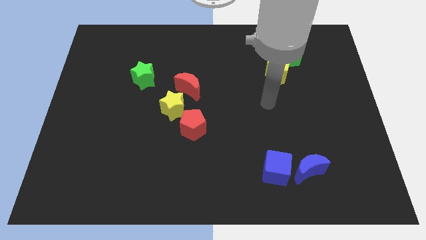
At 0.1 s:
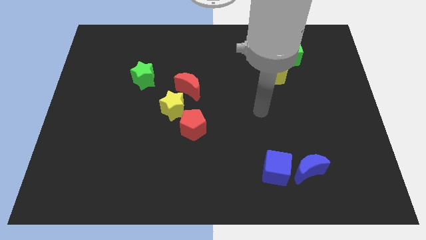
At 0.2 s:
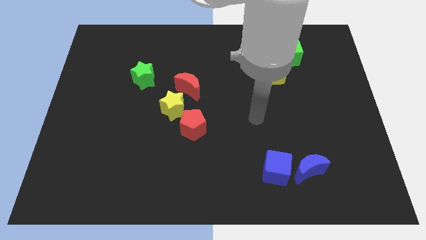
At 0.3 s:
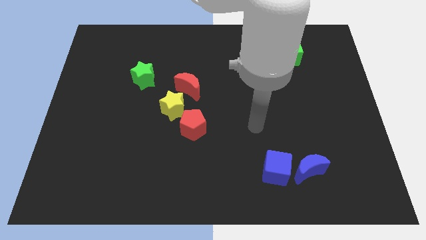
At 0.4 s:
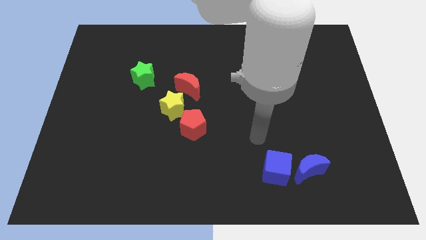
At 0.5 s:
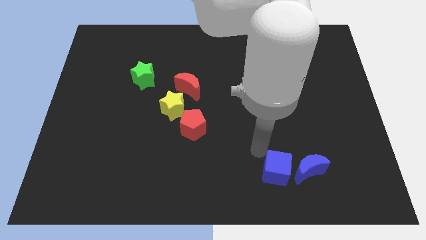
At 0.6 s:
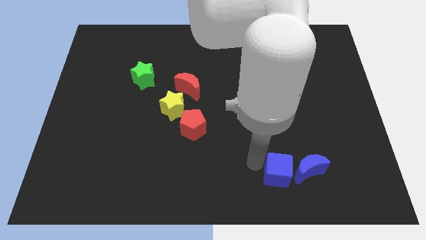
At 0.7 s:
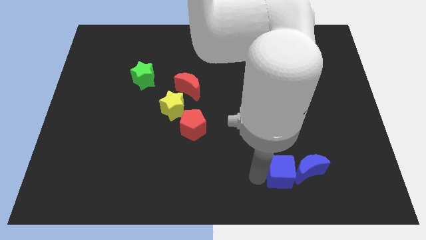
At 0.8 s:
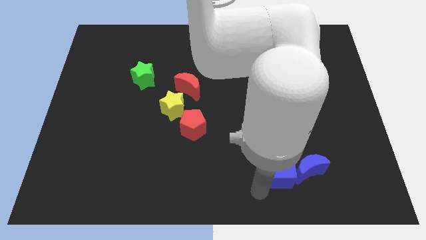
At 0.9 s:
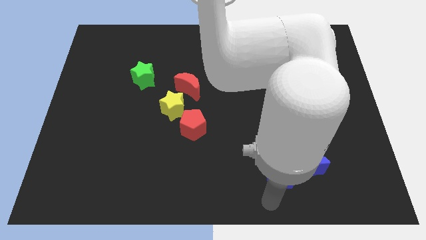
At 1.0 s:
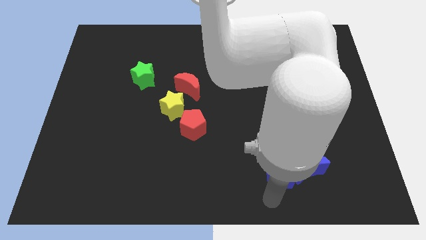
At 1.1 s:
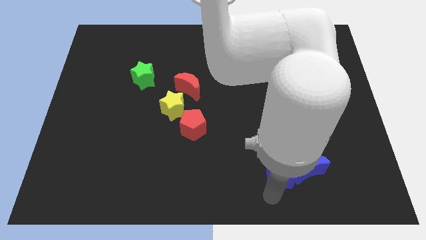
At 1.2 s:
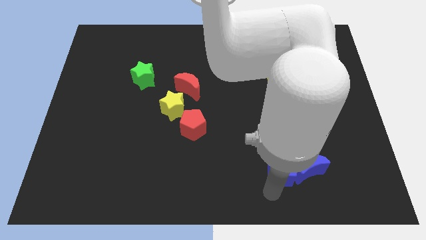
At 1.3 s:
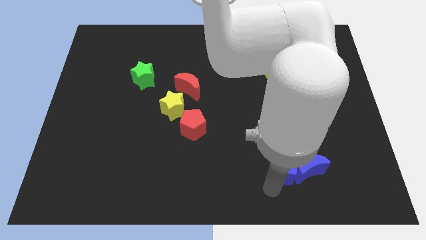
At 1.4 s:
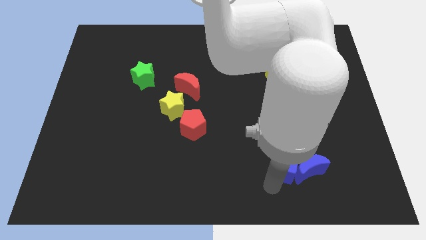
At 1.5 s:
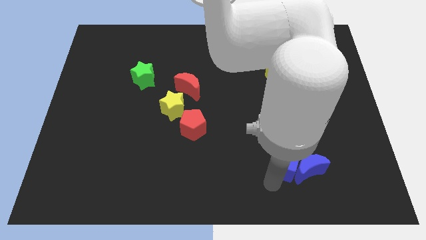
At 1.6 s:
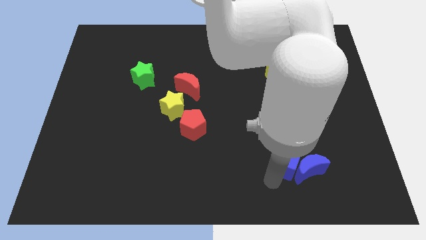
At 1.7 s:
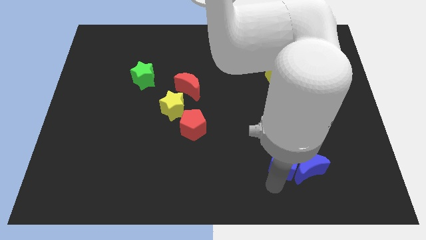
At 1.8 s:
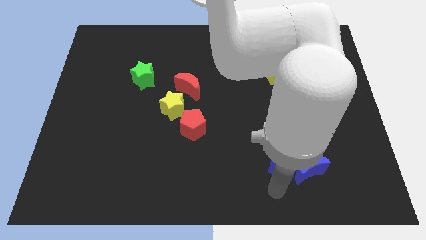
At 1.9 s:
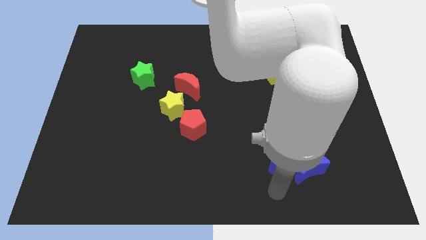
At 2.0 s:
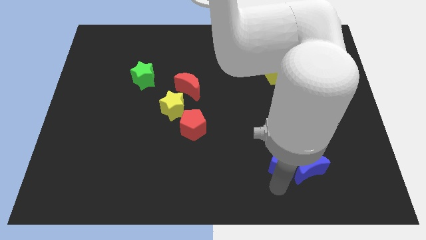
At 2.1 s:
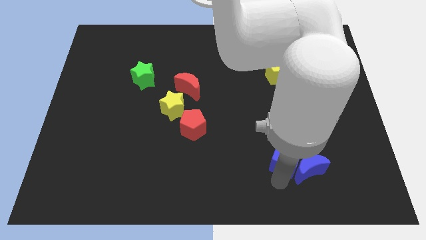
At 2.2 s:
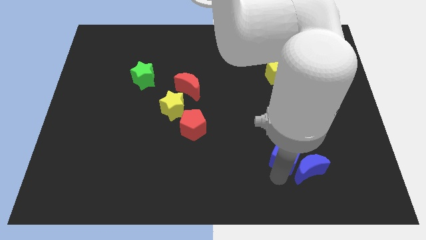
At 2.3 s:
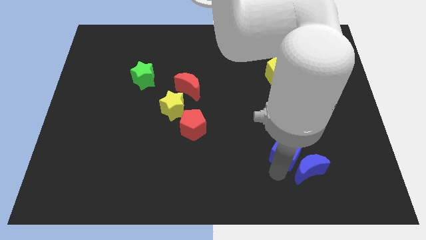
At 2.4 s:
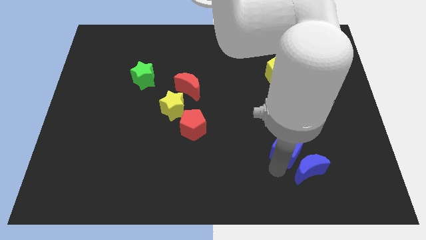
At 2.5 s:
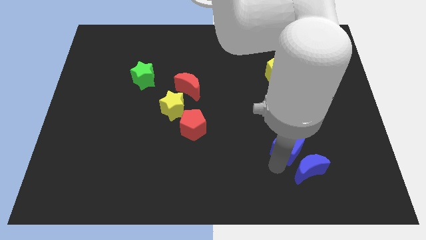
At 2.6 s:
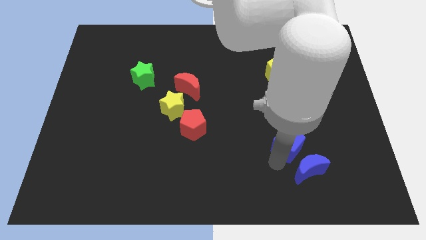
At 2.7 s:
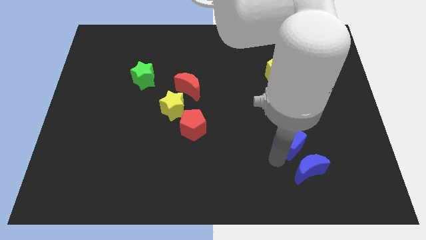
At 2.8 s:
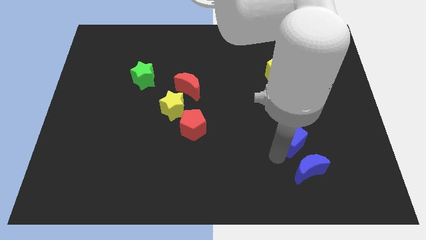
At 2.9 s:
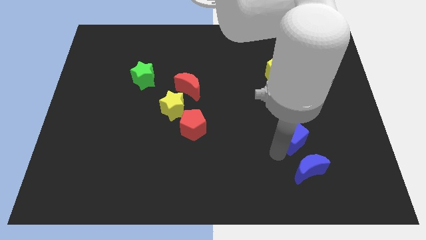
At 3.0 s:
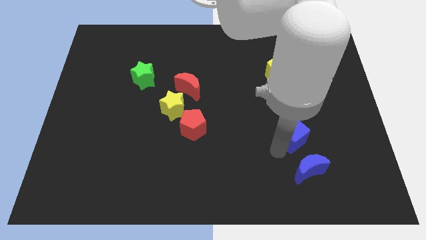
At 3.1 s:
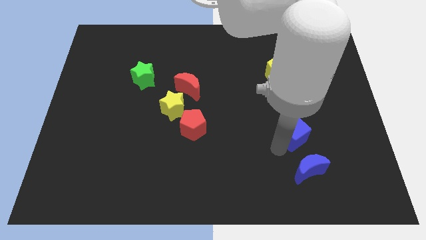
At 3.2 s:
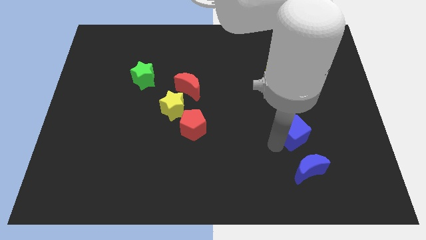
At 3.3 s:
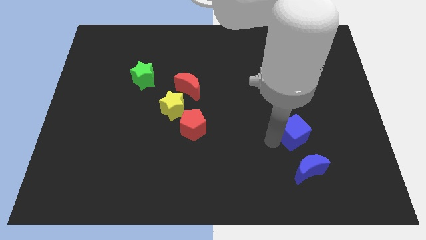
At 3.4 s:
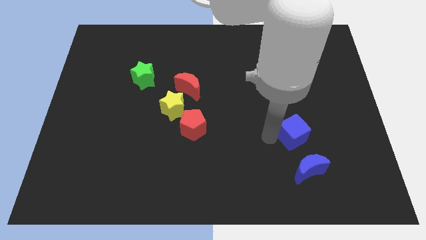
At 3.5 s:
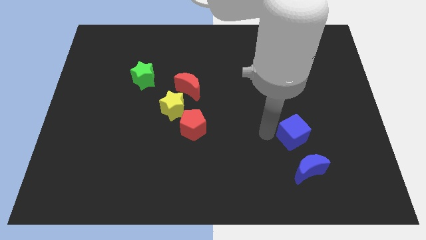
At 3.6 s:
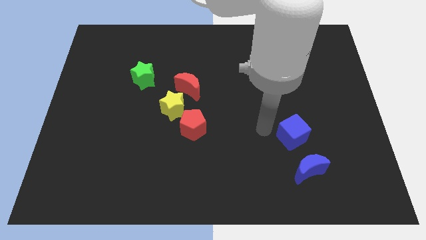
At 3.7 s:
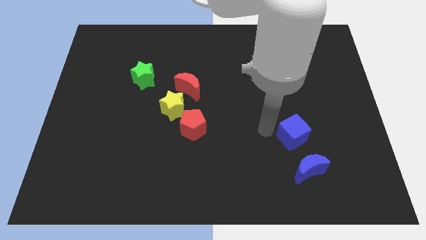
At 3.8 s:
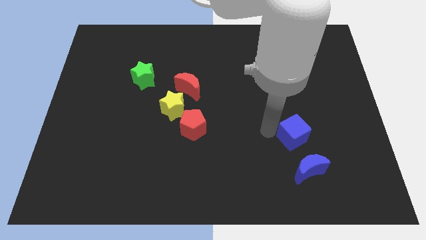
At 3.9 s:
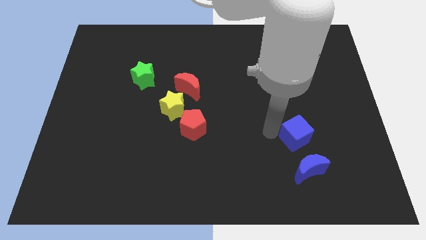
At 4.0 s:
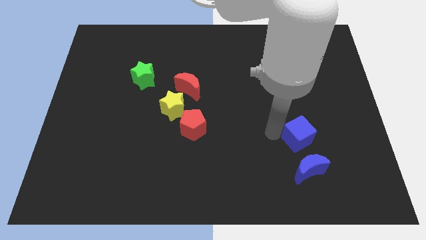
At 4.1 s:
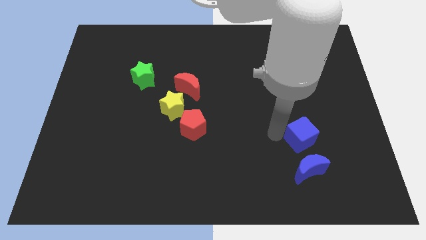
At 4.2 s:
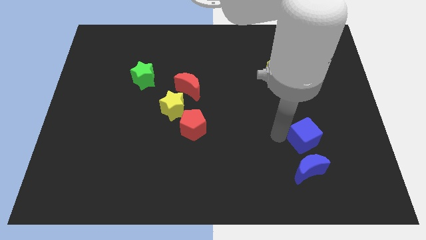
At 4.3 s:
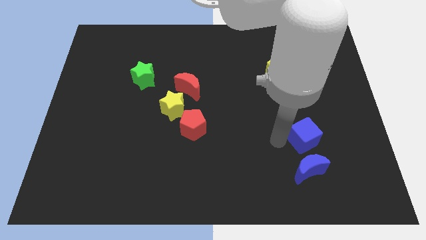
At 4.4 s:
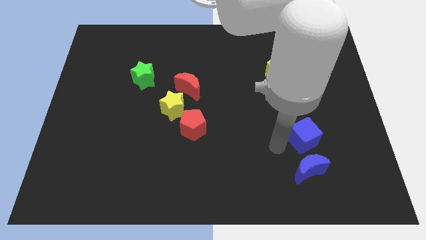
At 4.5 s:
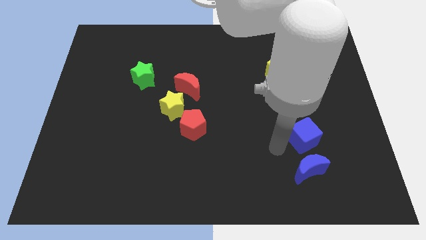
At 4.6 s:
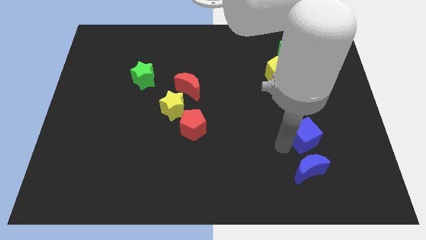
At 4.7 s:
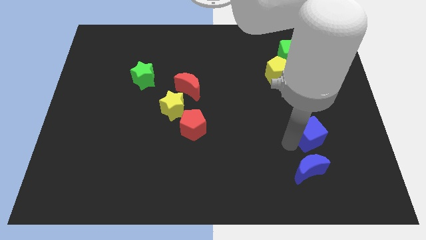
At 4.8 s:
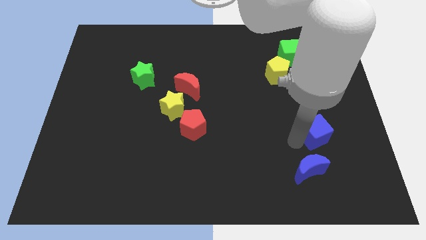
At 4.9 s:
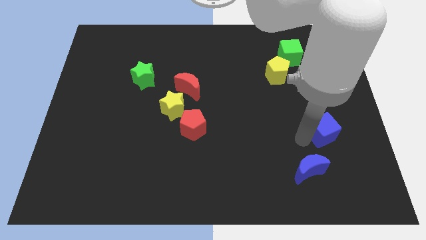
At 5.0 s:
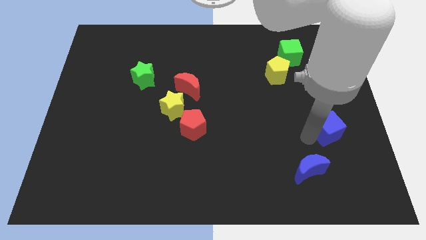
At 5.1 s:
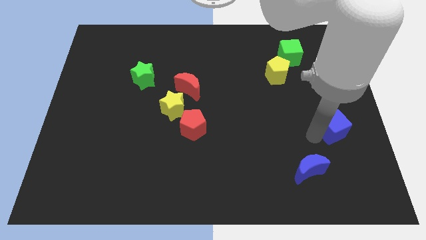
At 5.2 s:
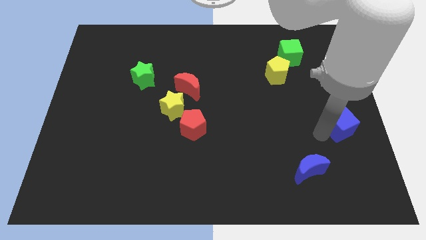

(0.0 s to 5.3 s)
slide the blue cube to the right side
